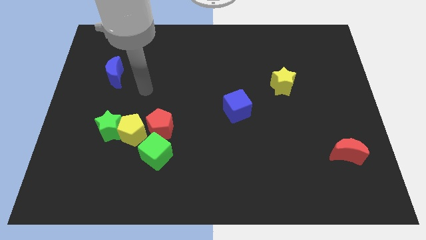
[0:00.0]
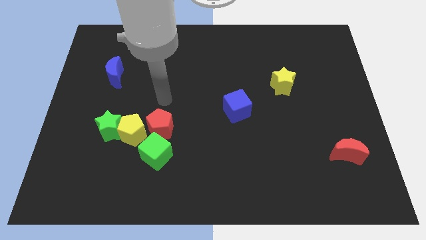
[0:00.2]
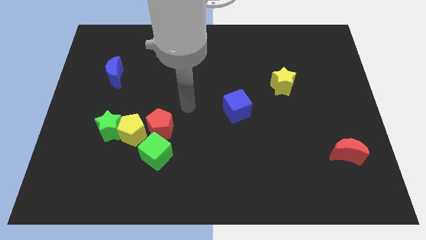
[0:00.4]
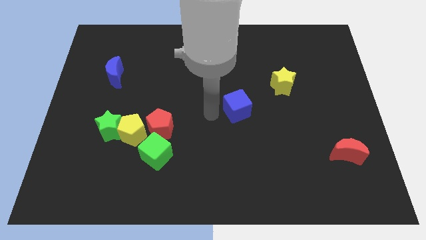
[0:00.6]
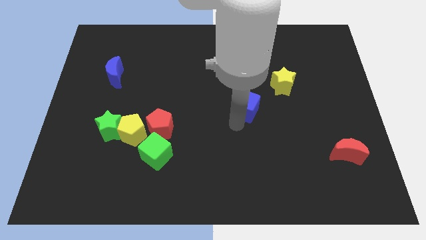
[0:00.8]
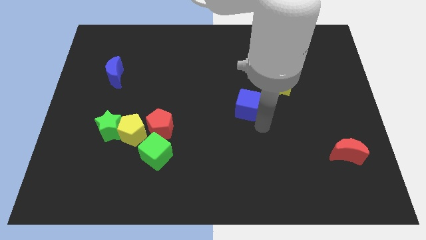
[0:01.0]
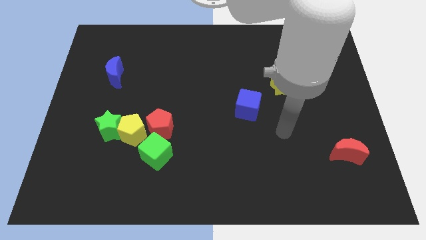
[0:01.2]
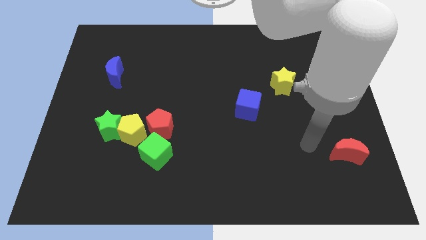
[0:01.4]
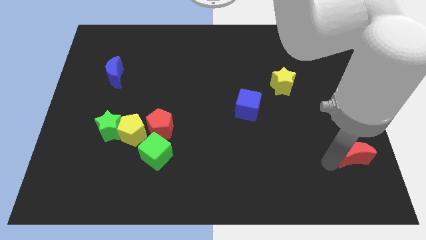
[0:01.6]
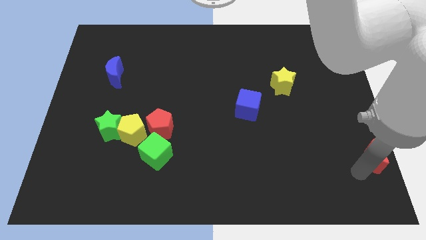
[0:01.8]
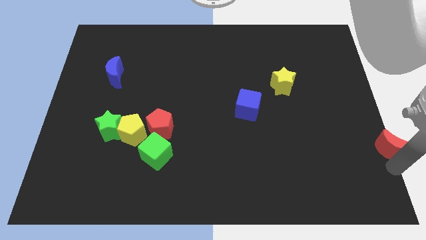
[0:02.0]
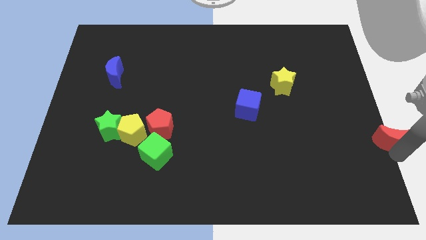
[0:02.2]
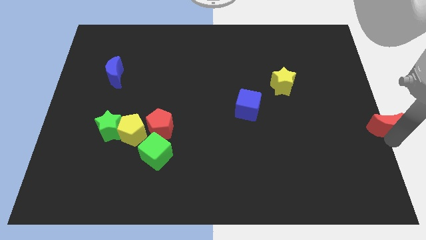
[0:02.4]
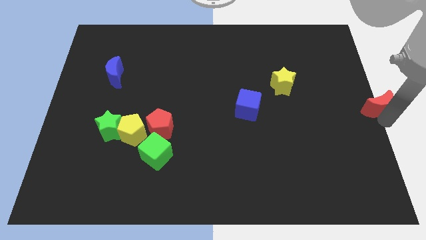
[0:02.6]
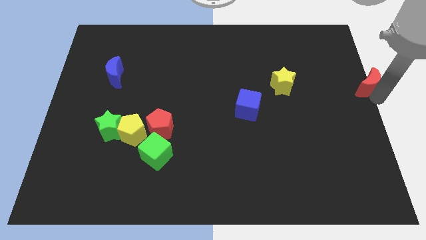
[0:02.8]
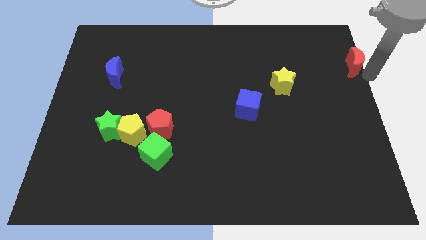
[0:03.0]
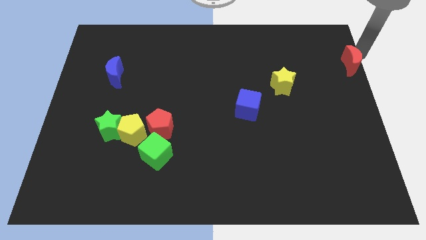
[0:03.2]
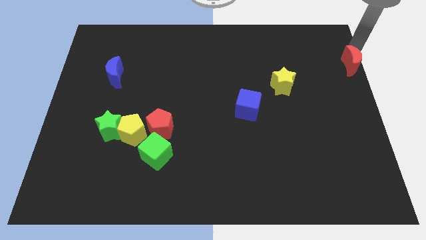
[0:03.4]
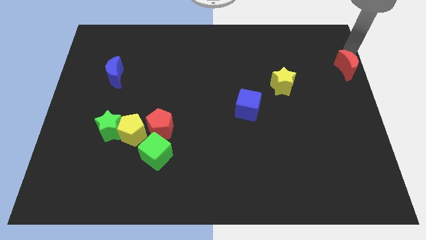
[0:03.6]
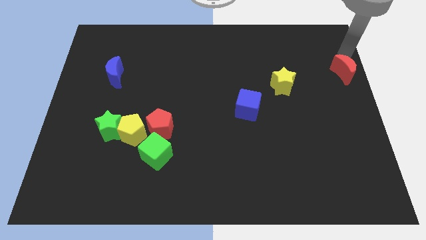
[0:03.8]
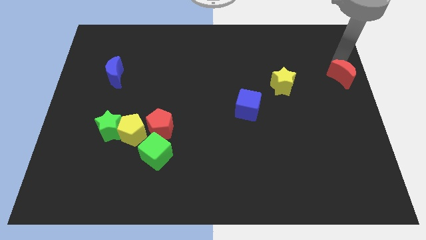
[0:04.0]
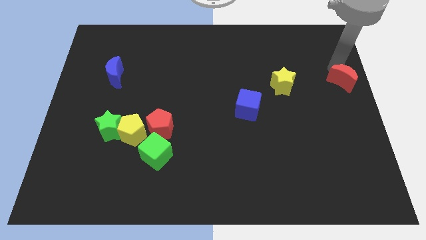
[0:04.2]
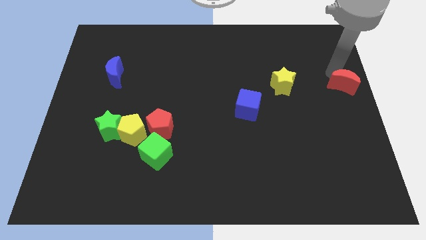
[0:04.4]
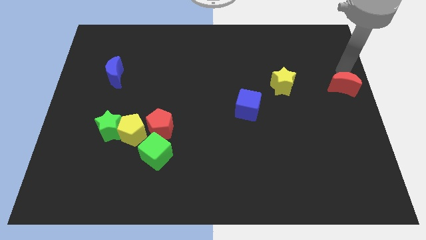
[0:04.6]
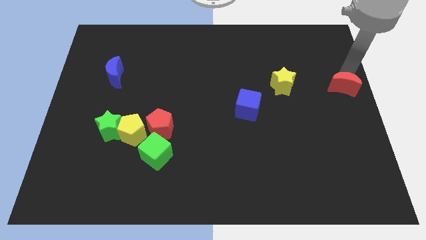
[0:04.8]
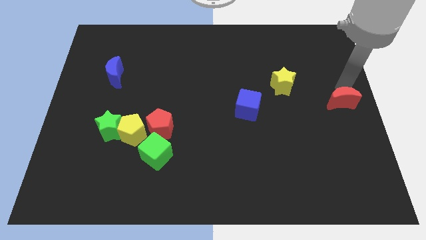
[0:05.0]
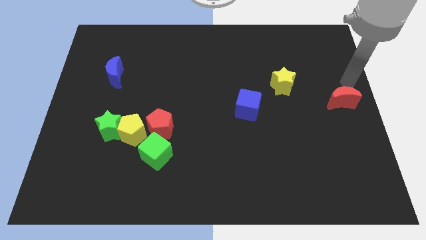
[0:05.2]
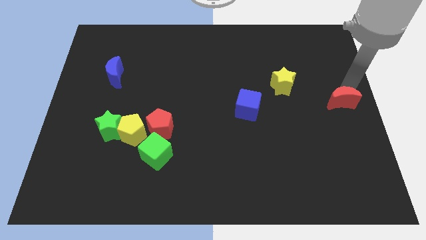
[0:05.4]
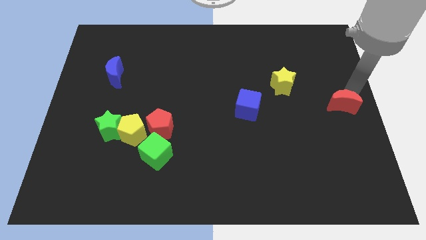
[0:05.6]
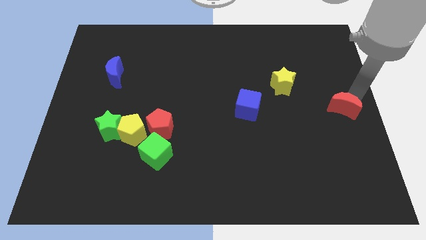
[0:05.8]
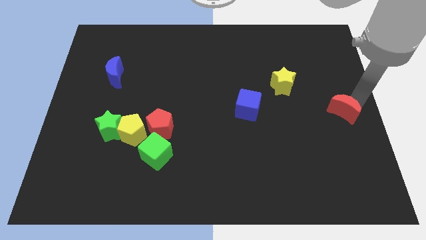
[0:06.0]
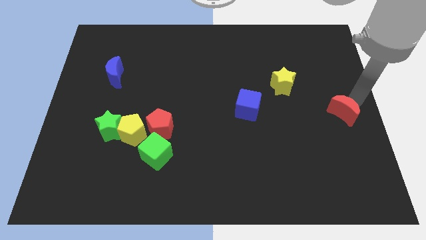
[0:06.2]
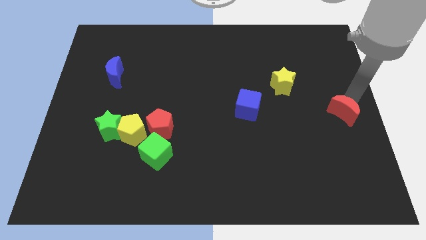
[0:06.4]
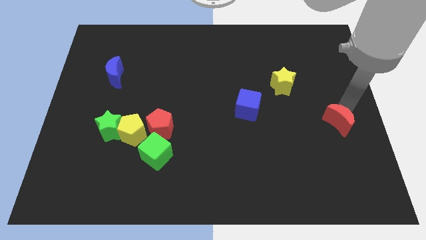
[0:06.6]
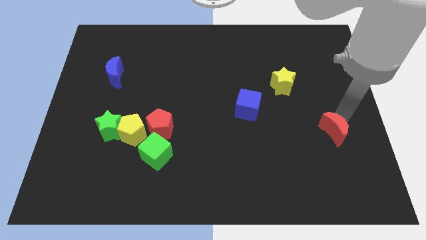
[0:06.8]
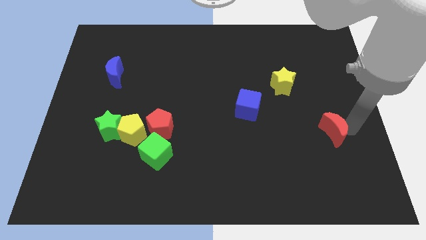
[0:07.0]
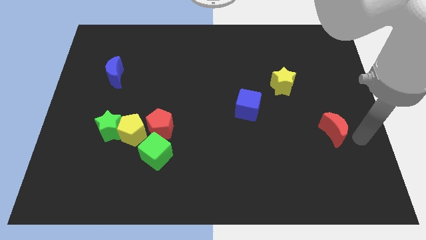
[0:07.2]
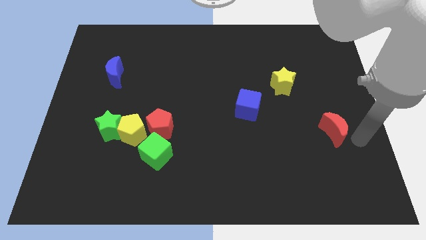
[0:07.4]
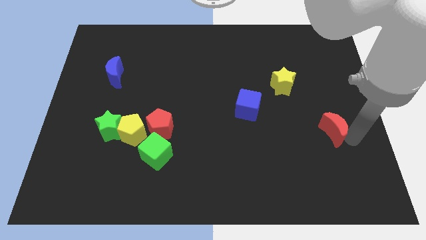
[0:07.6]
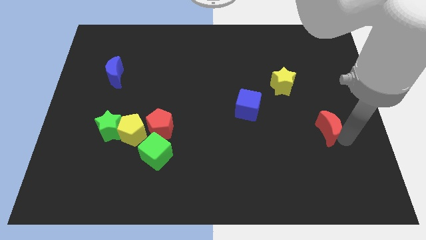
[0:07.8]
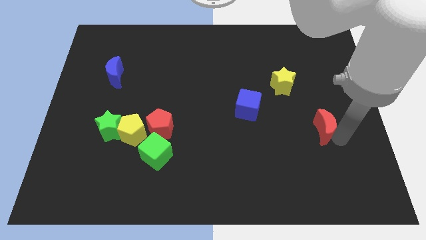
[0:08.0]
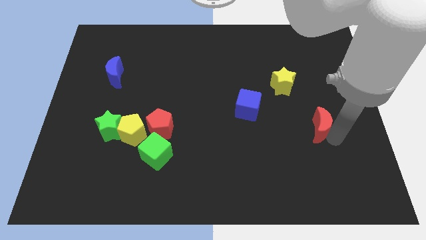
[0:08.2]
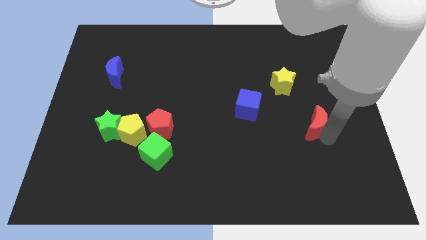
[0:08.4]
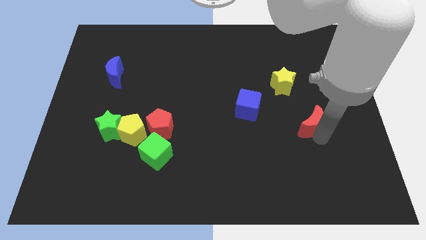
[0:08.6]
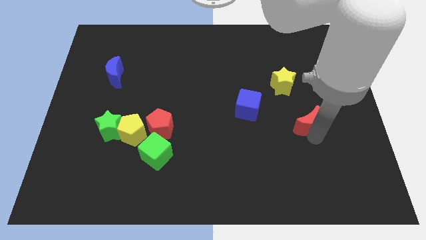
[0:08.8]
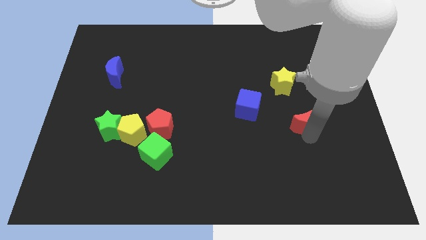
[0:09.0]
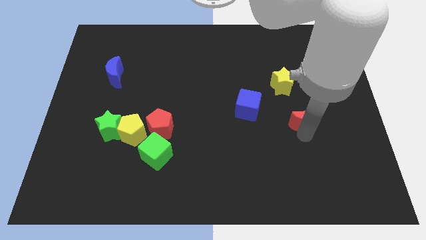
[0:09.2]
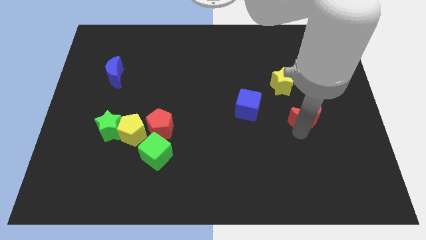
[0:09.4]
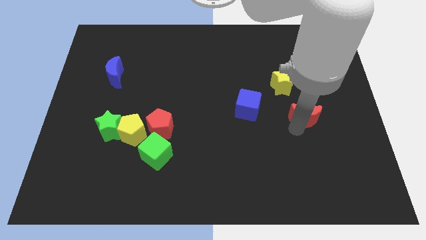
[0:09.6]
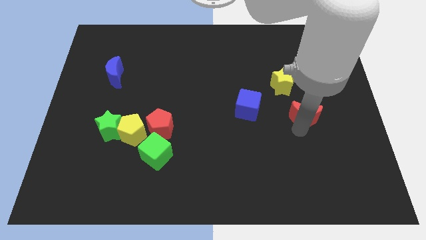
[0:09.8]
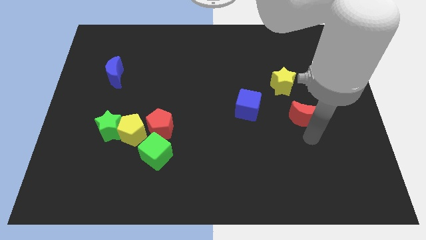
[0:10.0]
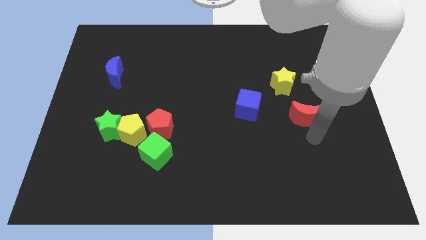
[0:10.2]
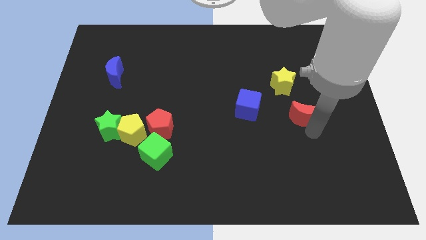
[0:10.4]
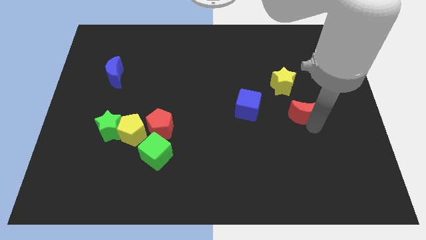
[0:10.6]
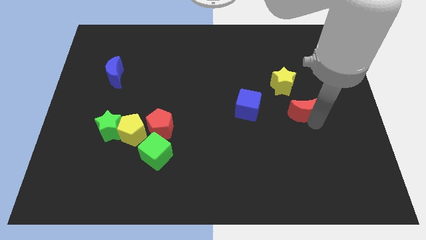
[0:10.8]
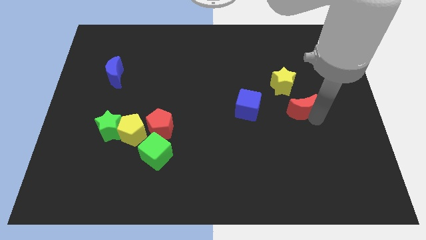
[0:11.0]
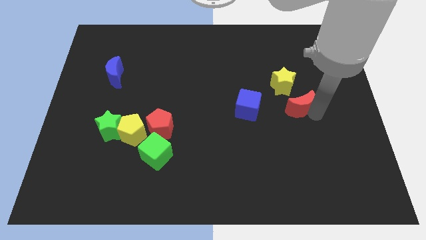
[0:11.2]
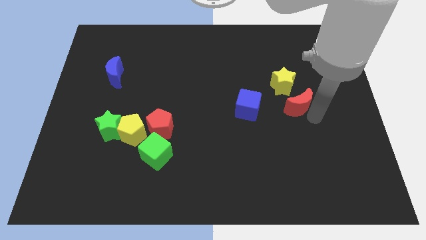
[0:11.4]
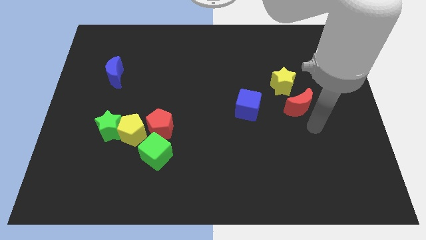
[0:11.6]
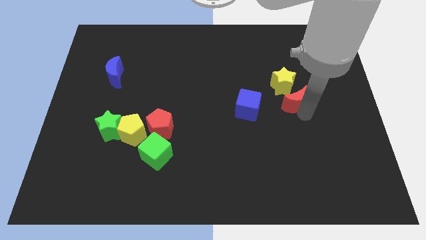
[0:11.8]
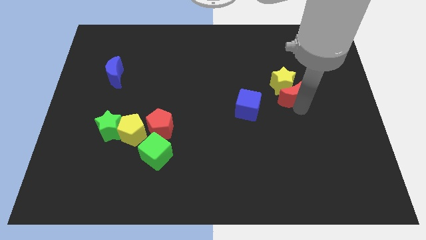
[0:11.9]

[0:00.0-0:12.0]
push the red moon next to the yellow star
